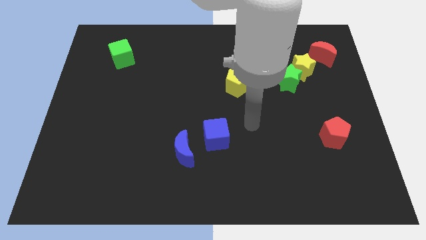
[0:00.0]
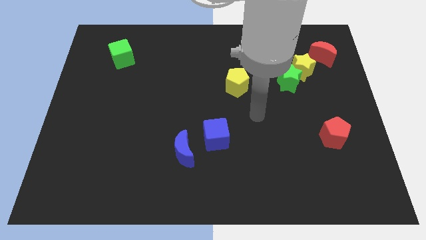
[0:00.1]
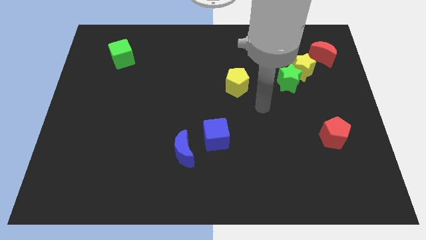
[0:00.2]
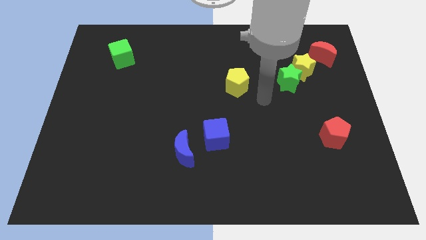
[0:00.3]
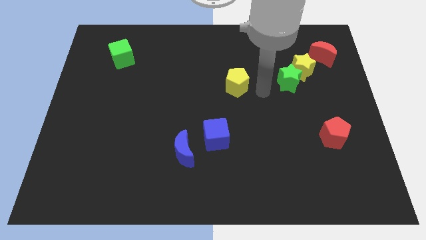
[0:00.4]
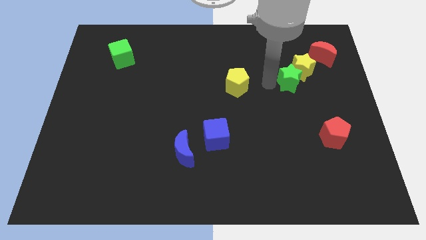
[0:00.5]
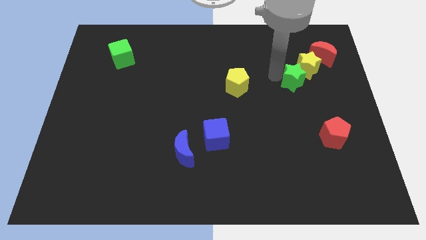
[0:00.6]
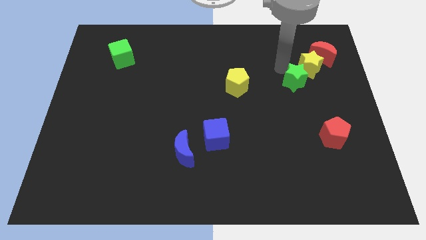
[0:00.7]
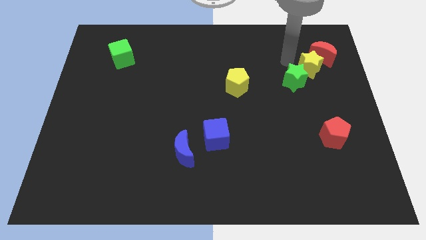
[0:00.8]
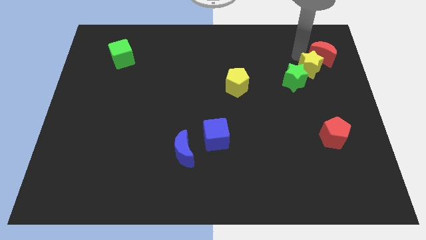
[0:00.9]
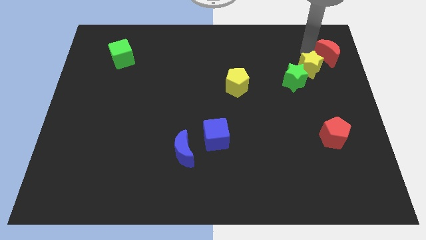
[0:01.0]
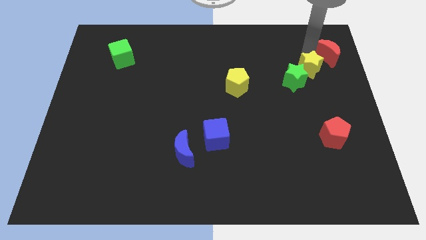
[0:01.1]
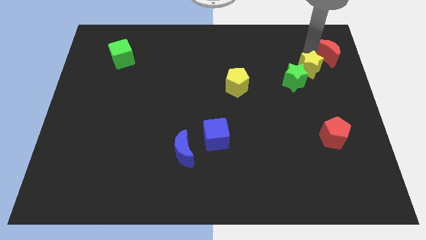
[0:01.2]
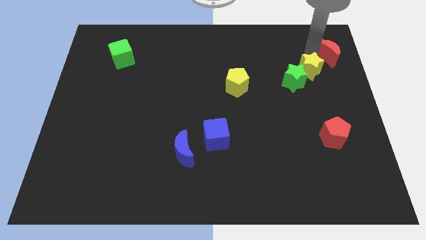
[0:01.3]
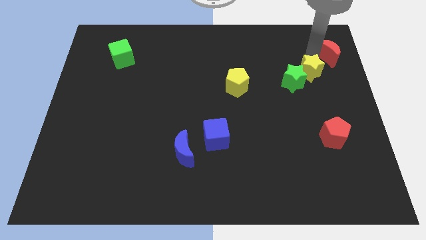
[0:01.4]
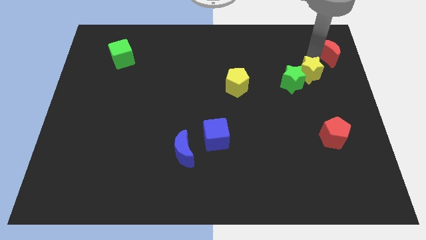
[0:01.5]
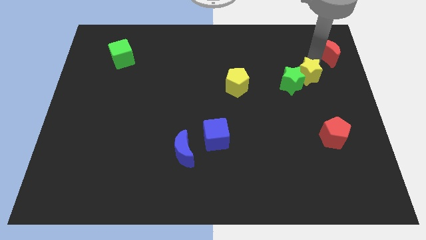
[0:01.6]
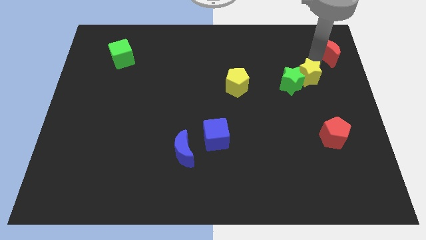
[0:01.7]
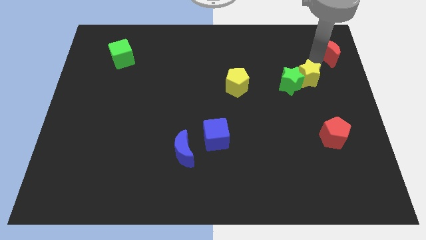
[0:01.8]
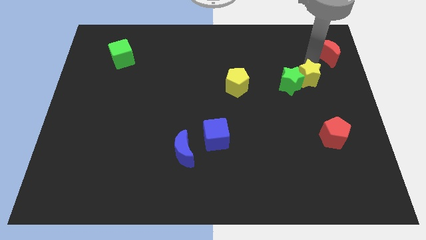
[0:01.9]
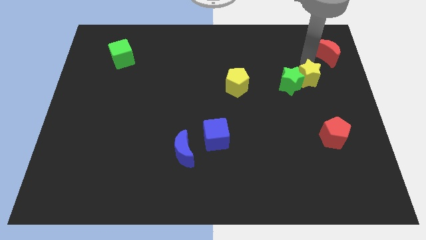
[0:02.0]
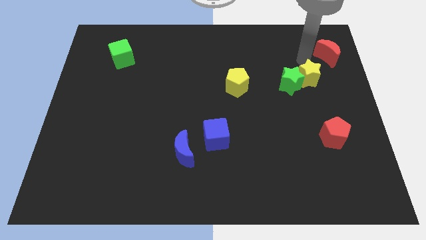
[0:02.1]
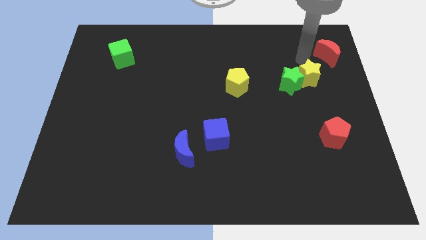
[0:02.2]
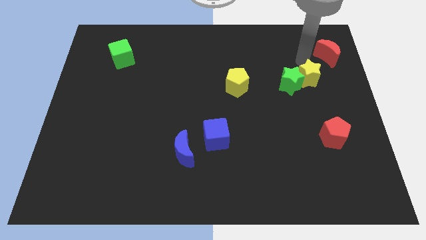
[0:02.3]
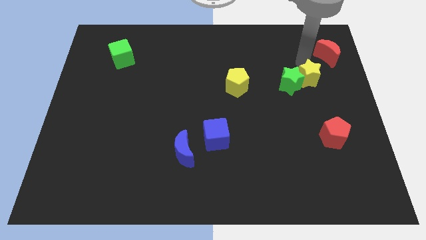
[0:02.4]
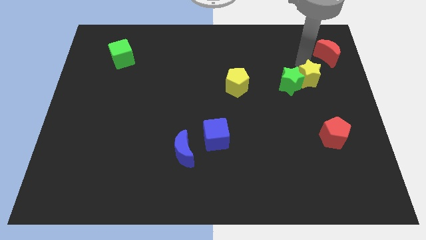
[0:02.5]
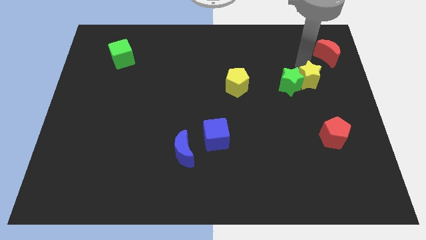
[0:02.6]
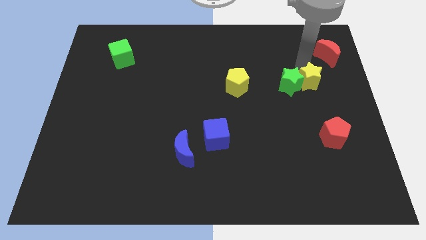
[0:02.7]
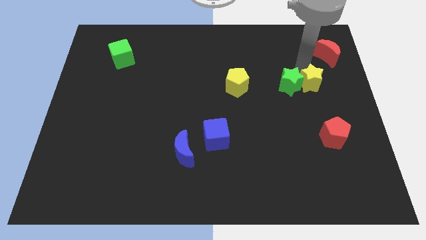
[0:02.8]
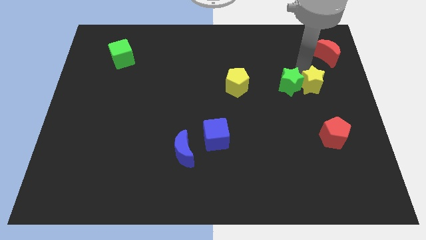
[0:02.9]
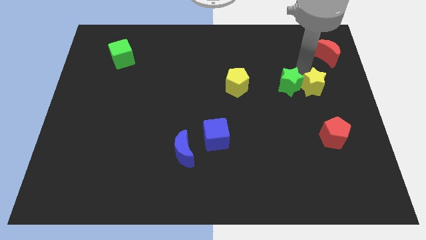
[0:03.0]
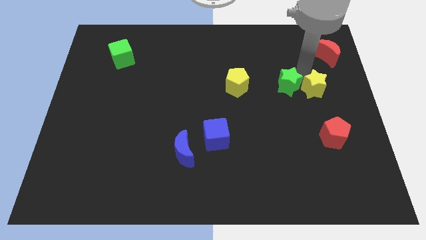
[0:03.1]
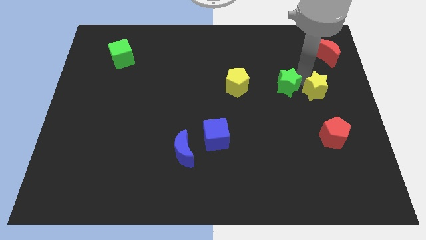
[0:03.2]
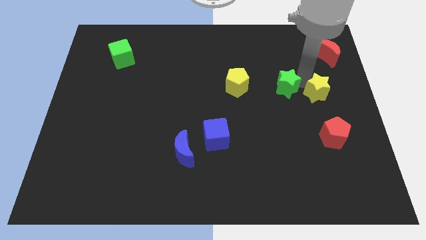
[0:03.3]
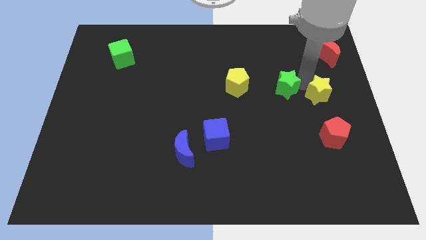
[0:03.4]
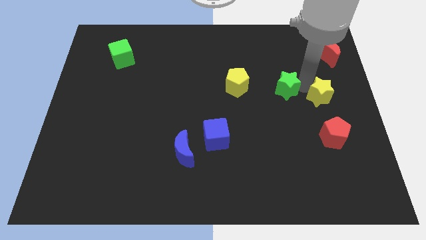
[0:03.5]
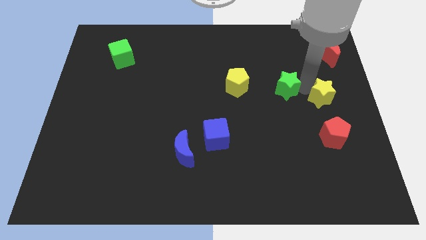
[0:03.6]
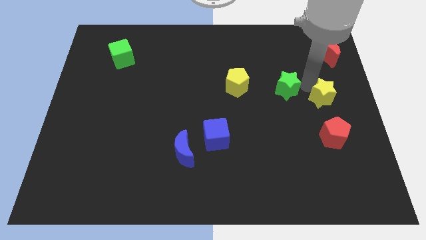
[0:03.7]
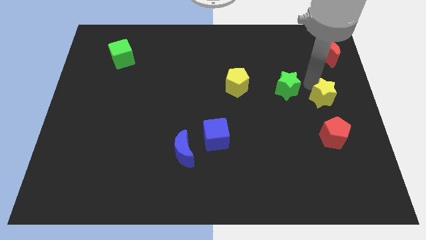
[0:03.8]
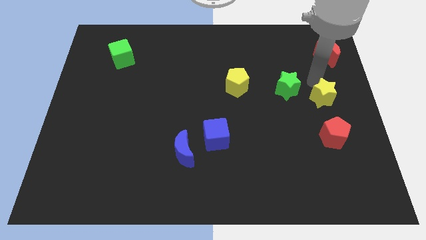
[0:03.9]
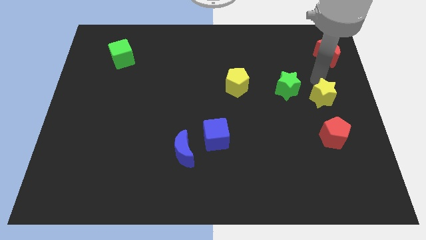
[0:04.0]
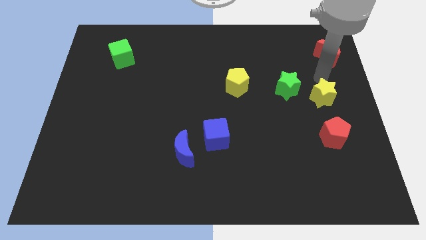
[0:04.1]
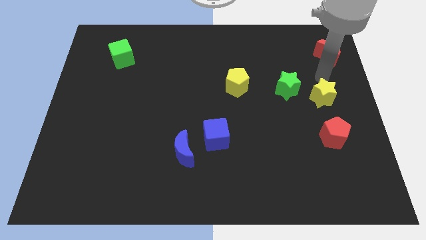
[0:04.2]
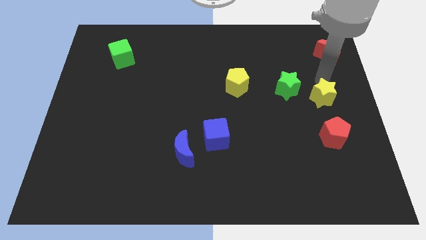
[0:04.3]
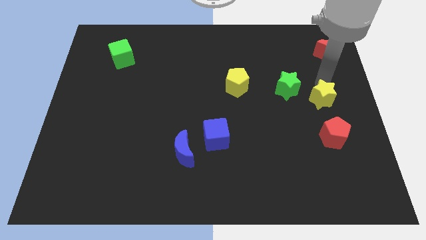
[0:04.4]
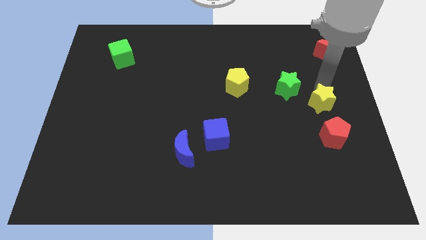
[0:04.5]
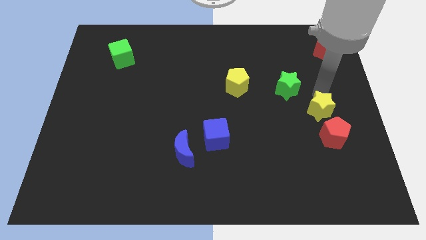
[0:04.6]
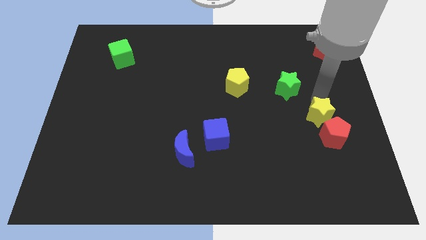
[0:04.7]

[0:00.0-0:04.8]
push the yellow star close to the red pentagon

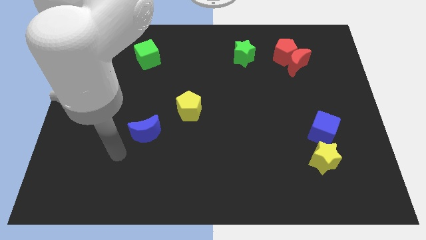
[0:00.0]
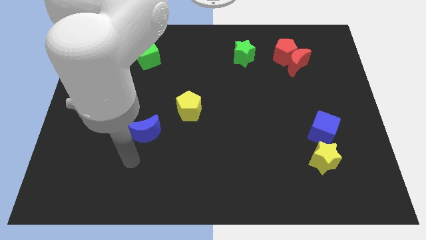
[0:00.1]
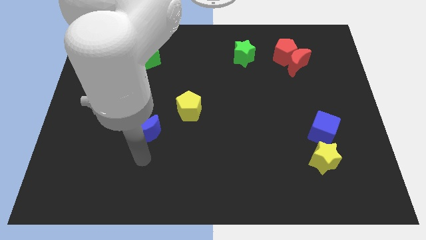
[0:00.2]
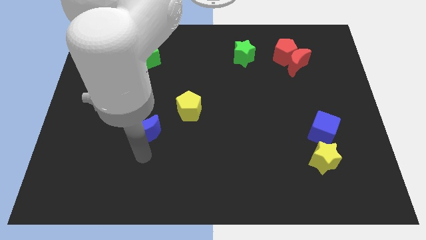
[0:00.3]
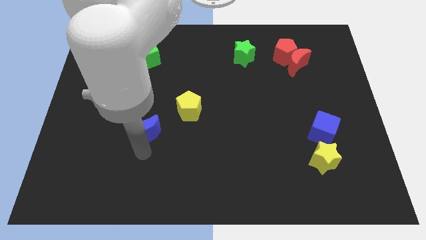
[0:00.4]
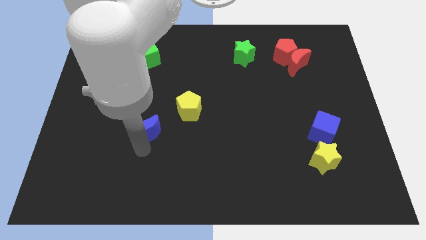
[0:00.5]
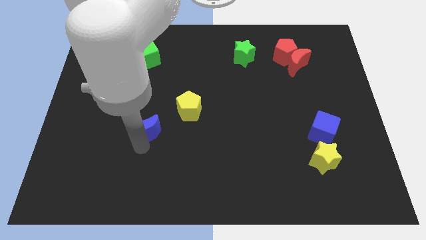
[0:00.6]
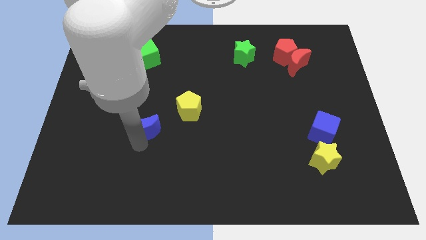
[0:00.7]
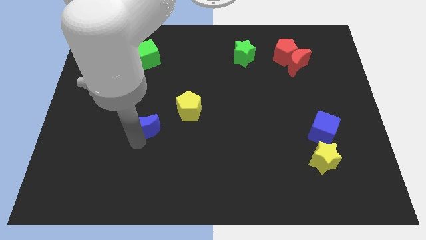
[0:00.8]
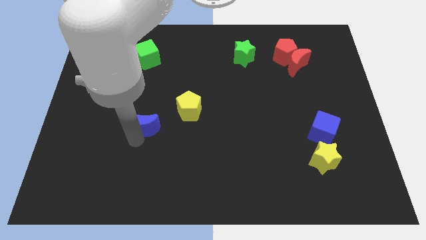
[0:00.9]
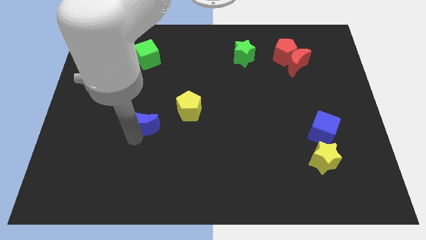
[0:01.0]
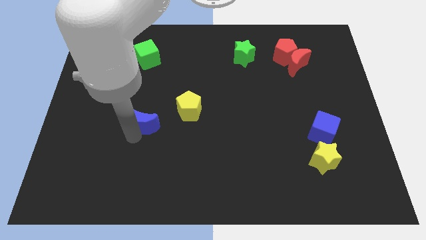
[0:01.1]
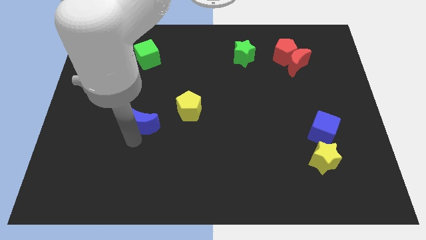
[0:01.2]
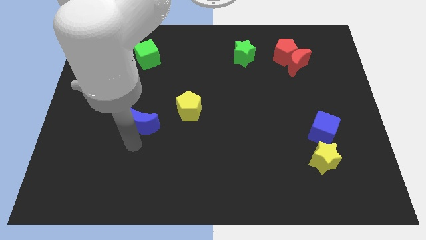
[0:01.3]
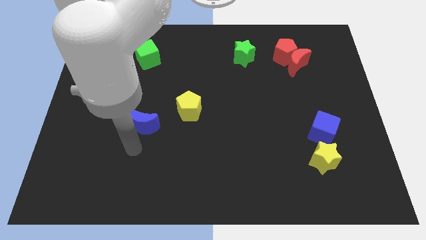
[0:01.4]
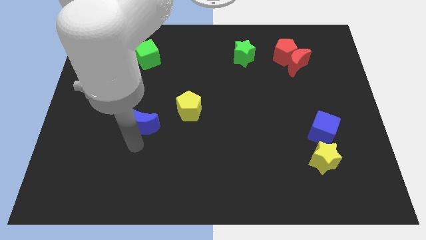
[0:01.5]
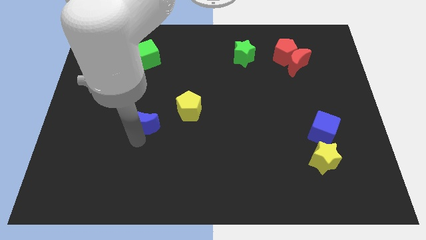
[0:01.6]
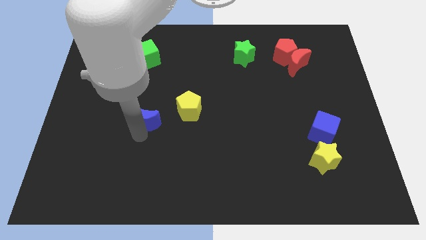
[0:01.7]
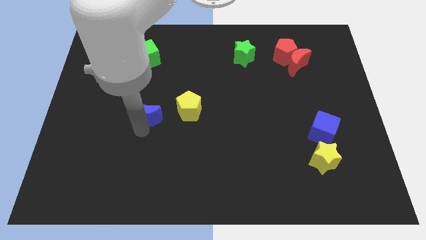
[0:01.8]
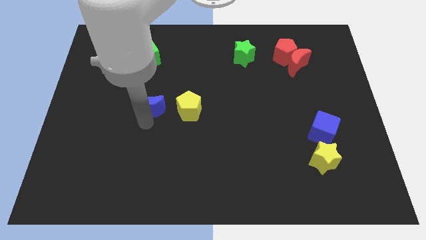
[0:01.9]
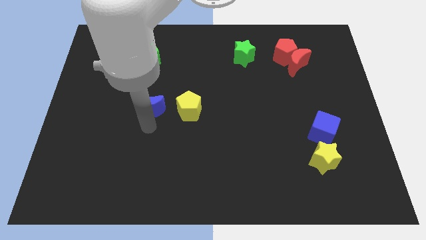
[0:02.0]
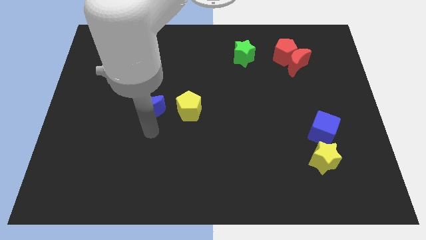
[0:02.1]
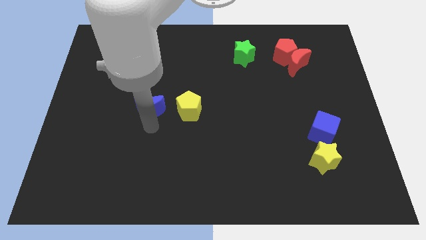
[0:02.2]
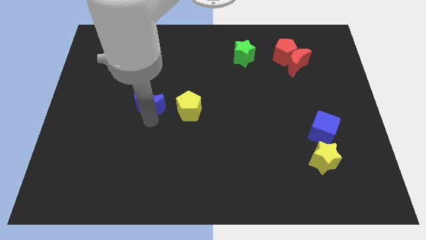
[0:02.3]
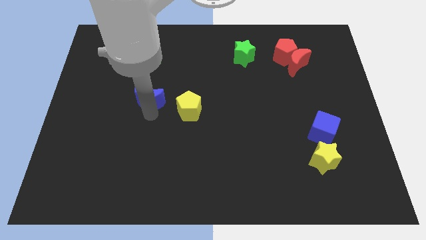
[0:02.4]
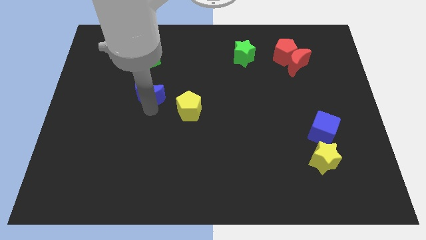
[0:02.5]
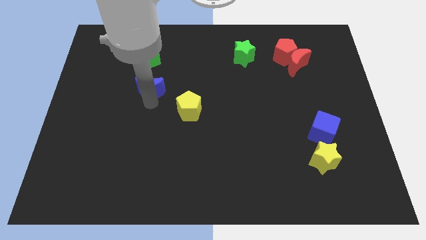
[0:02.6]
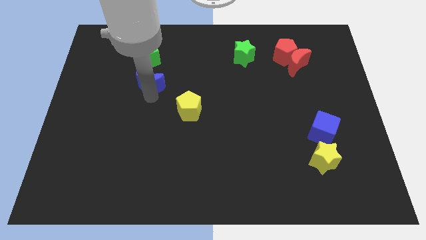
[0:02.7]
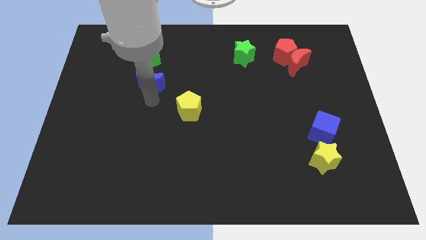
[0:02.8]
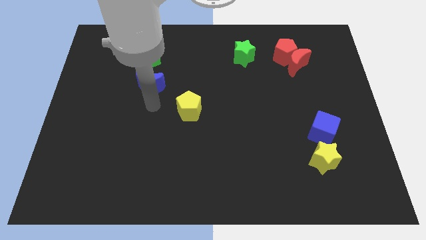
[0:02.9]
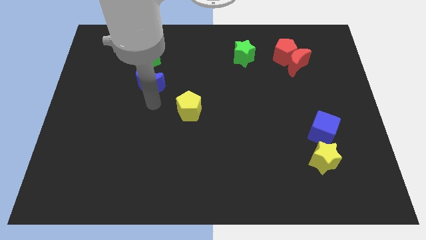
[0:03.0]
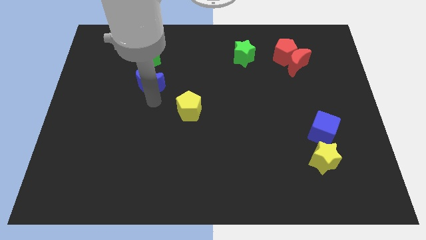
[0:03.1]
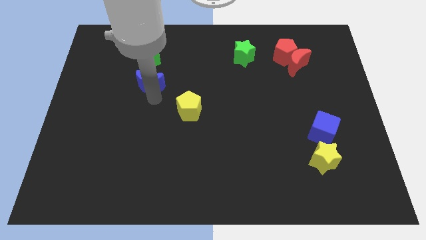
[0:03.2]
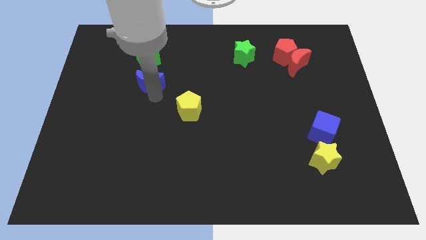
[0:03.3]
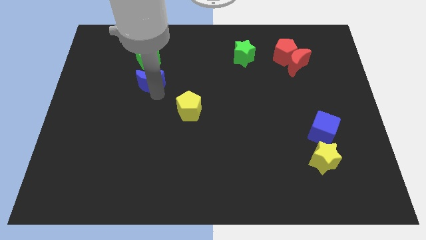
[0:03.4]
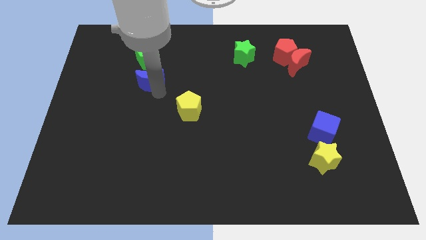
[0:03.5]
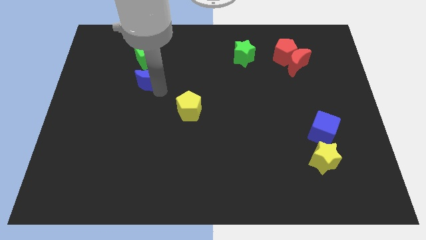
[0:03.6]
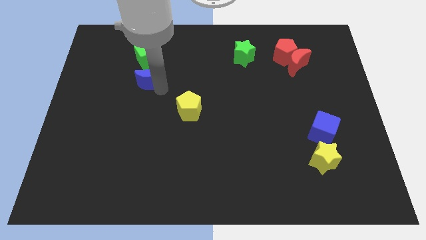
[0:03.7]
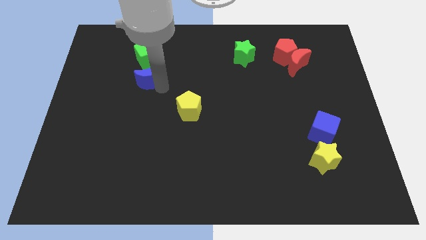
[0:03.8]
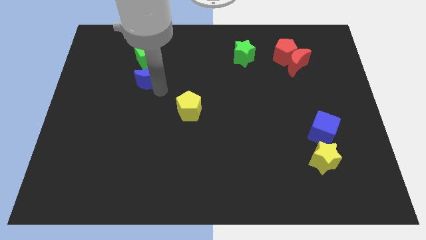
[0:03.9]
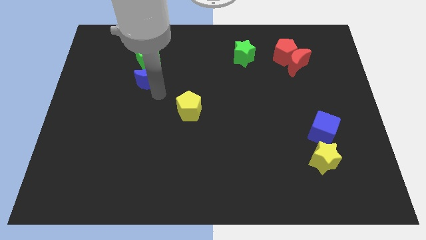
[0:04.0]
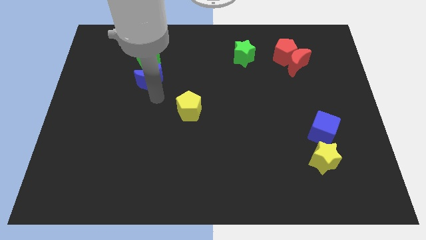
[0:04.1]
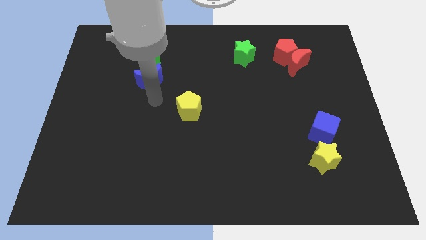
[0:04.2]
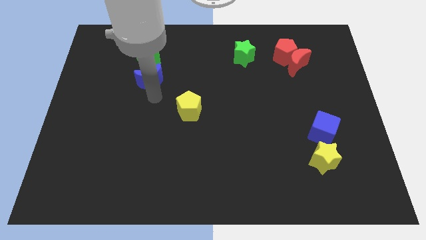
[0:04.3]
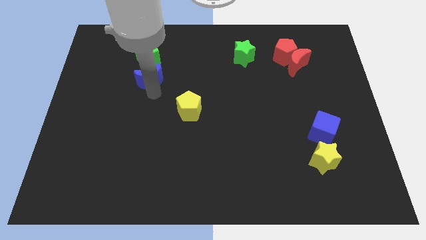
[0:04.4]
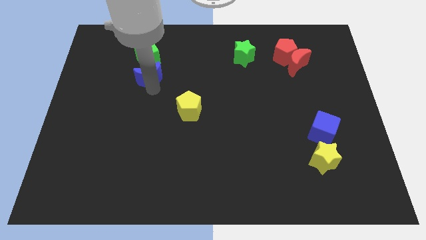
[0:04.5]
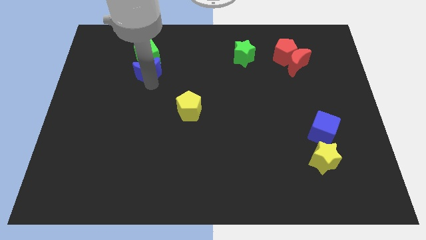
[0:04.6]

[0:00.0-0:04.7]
slide the blue moon close to the green cube
